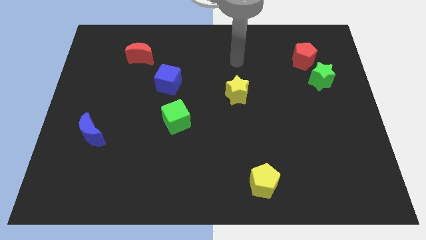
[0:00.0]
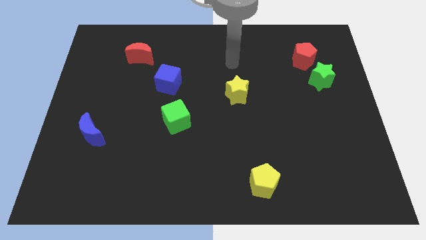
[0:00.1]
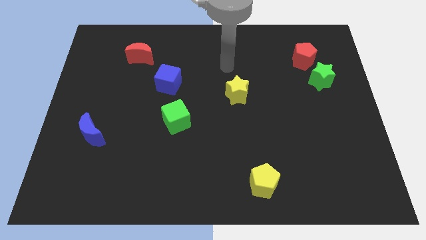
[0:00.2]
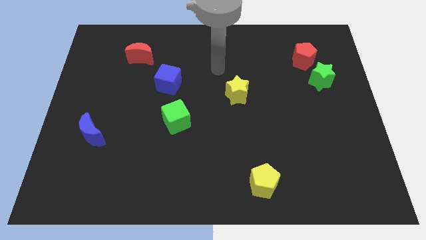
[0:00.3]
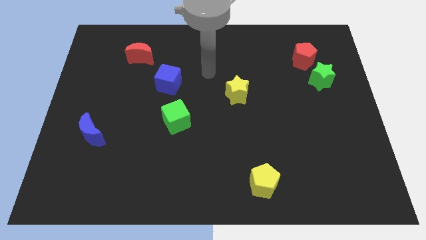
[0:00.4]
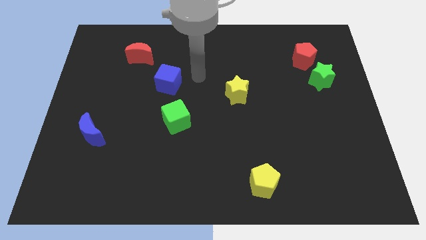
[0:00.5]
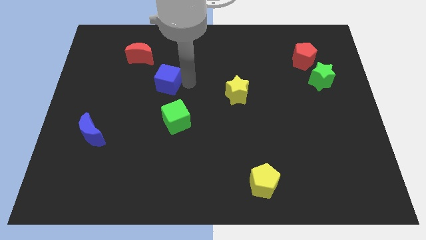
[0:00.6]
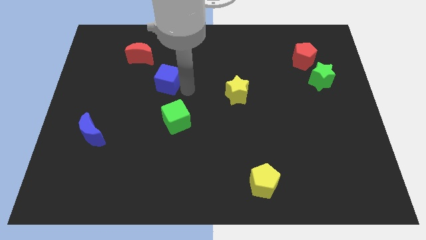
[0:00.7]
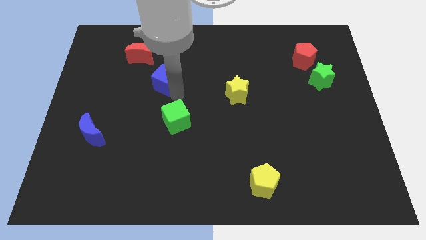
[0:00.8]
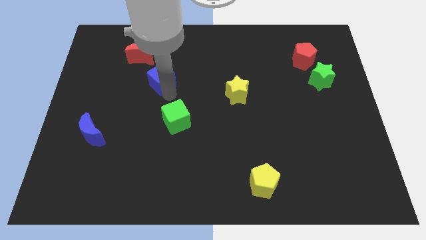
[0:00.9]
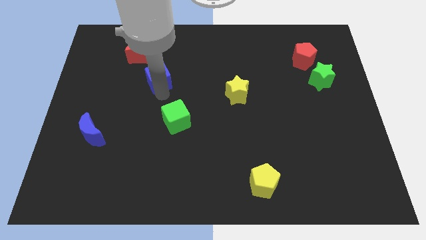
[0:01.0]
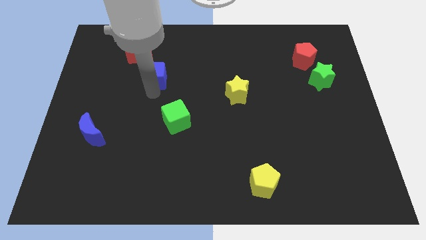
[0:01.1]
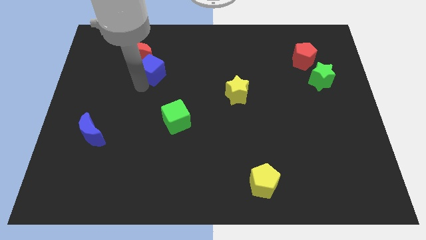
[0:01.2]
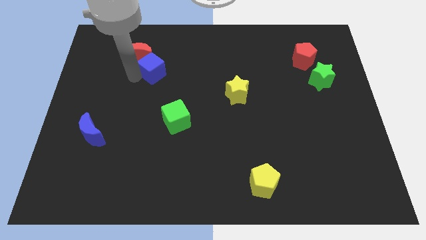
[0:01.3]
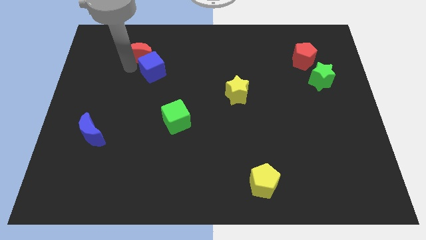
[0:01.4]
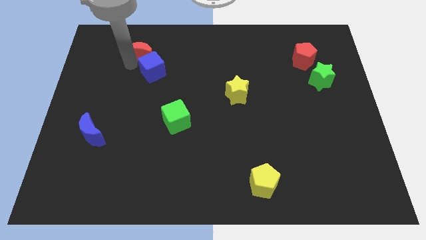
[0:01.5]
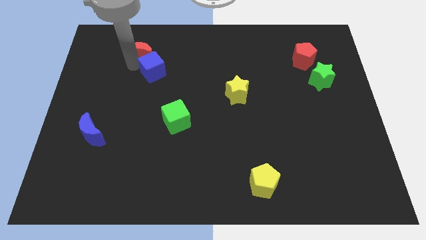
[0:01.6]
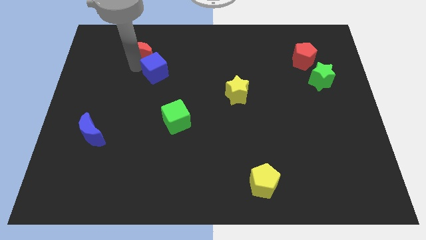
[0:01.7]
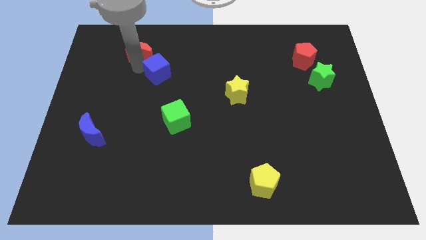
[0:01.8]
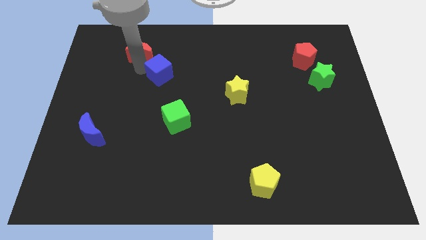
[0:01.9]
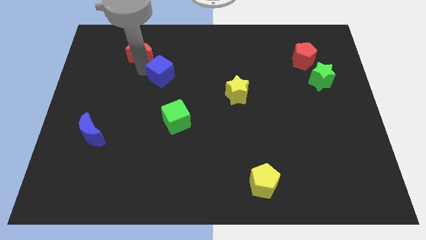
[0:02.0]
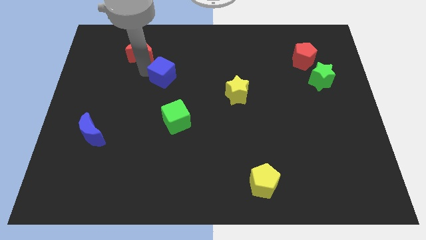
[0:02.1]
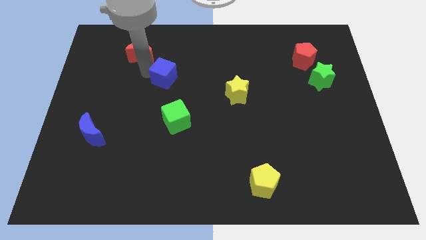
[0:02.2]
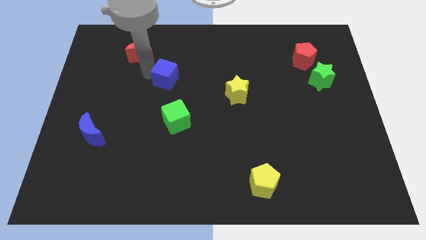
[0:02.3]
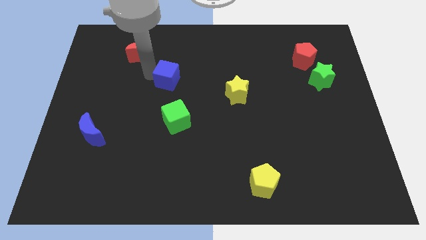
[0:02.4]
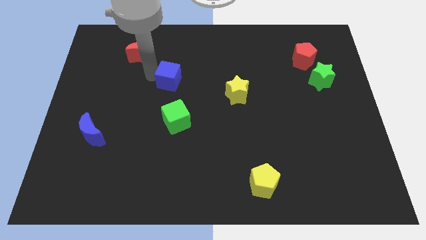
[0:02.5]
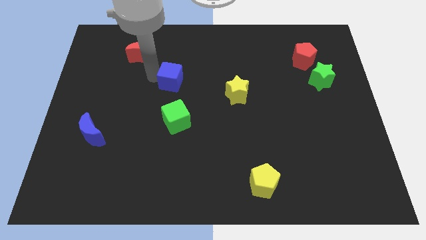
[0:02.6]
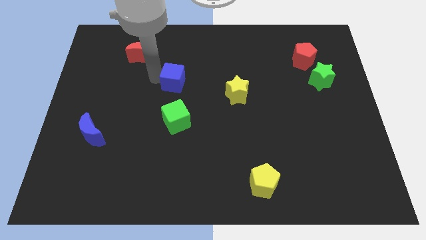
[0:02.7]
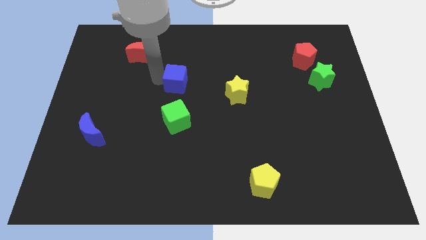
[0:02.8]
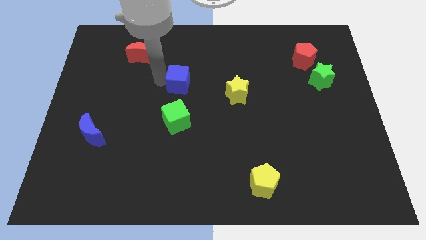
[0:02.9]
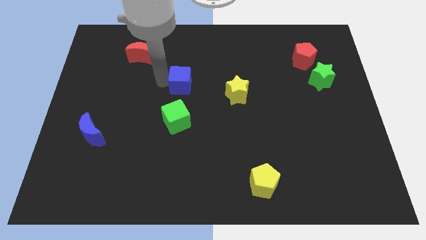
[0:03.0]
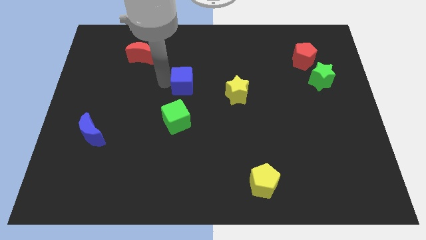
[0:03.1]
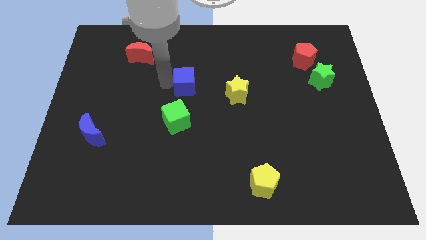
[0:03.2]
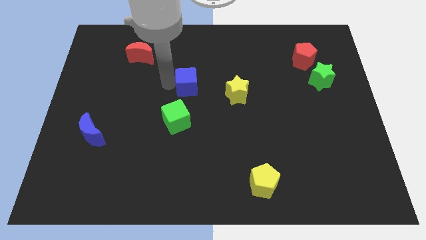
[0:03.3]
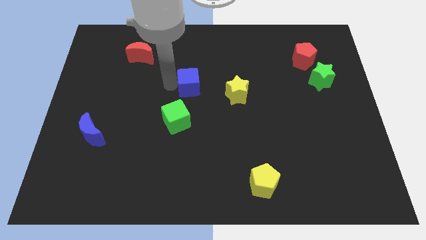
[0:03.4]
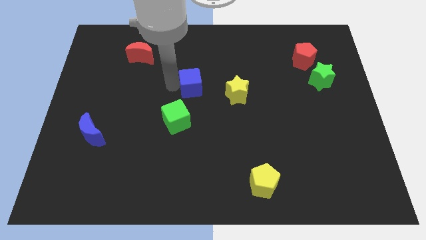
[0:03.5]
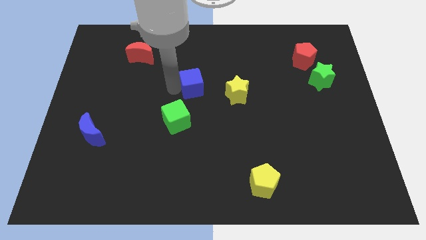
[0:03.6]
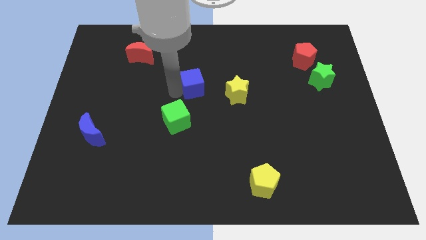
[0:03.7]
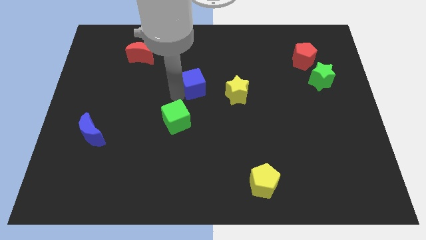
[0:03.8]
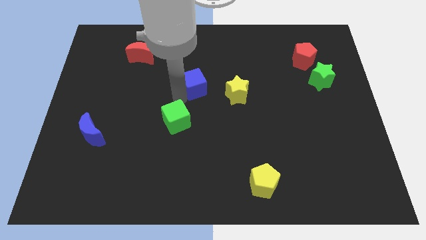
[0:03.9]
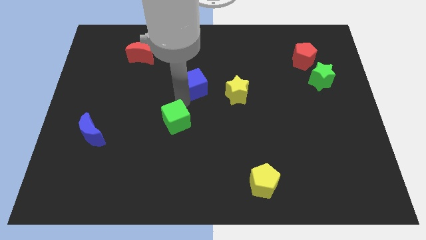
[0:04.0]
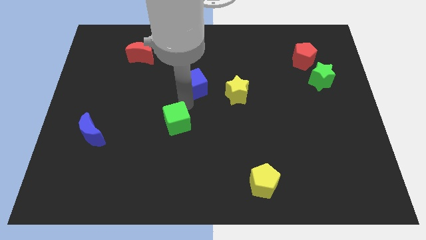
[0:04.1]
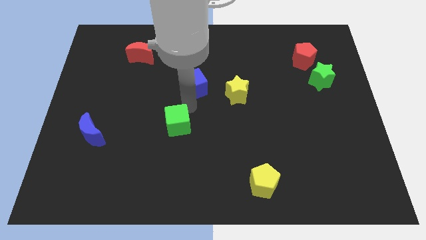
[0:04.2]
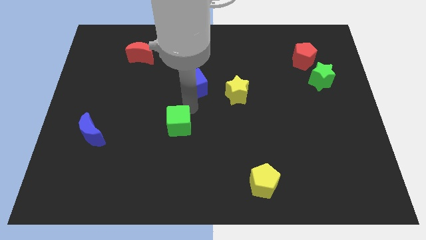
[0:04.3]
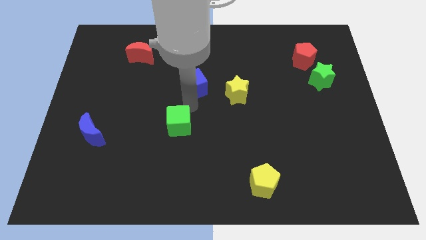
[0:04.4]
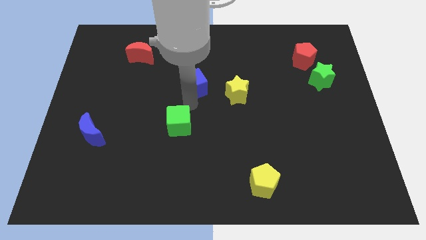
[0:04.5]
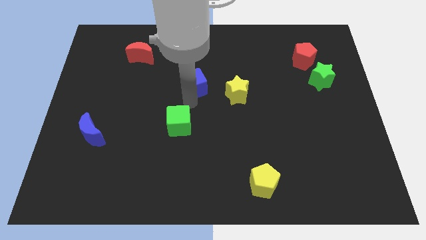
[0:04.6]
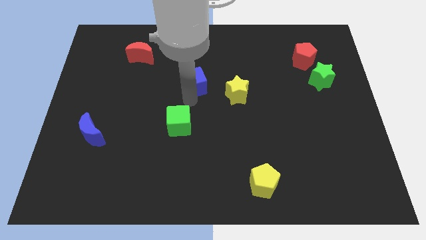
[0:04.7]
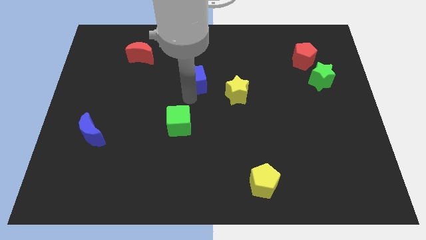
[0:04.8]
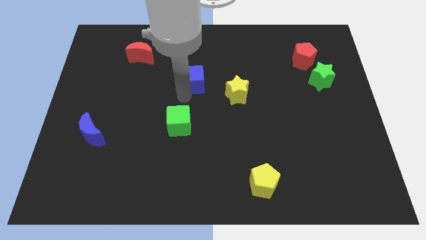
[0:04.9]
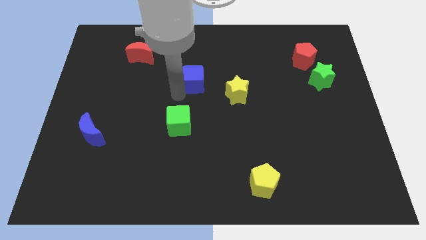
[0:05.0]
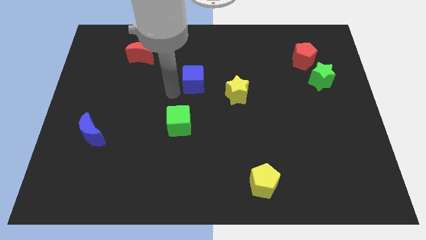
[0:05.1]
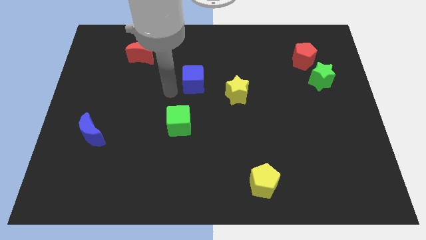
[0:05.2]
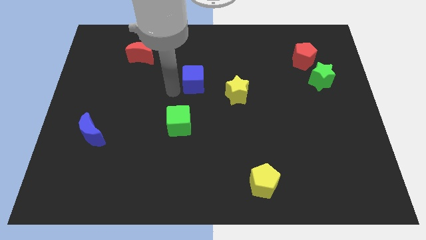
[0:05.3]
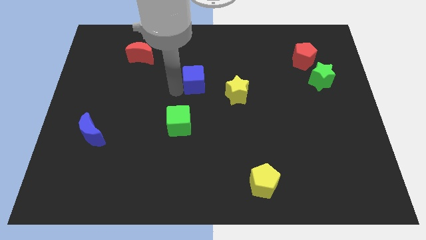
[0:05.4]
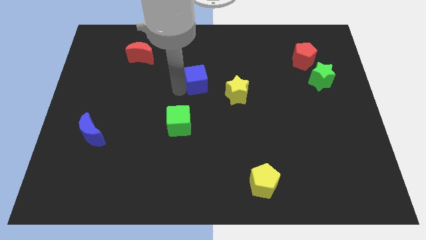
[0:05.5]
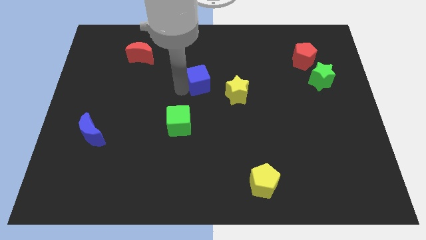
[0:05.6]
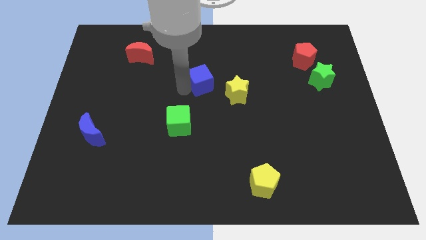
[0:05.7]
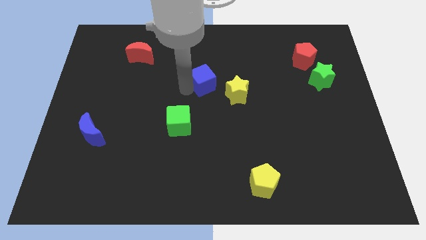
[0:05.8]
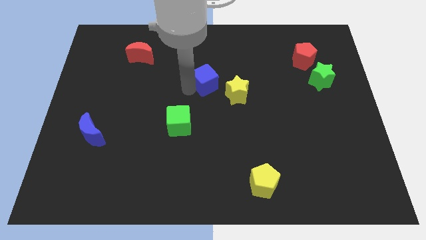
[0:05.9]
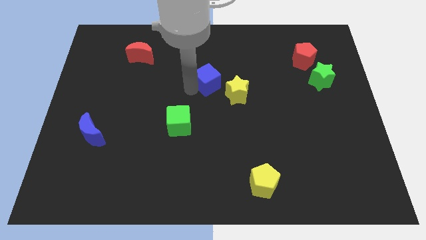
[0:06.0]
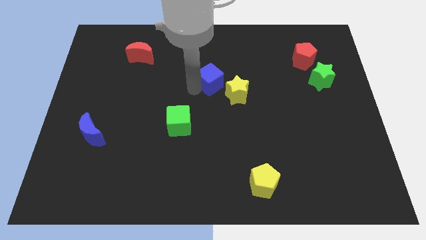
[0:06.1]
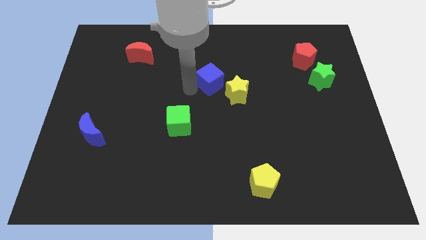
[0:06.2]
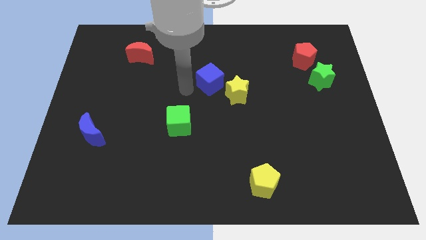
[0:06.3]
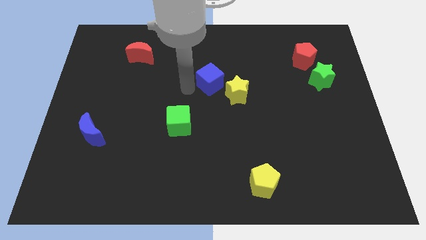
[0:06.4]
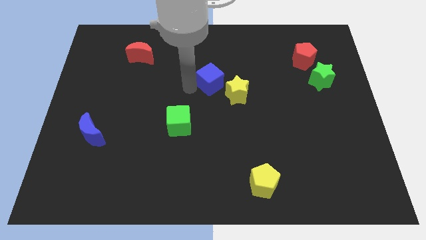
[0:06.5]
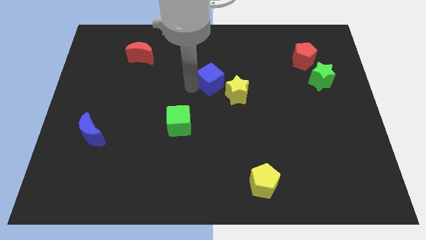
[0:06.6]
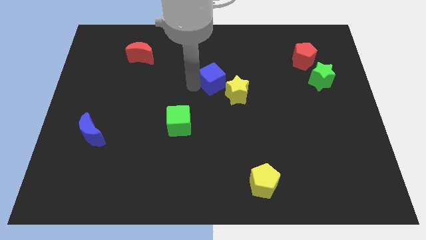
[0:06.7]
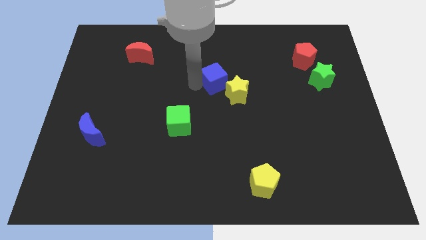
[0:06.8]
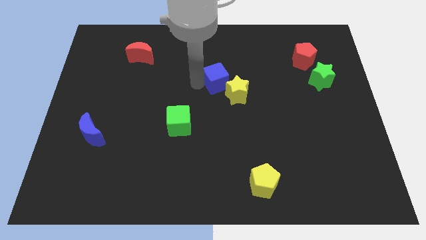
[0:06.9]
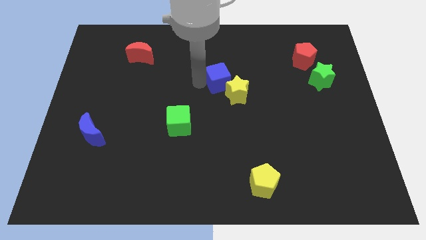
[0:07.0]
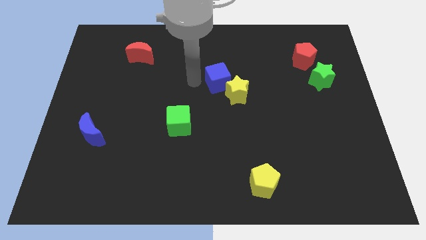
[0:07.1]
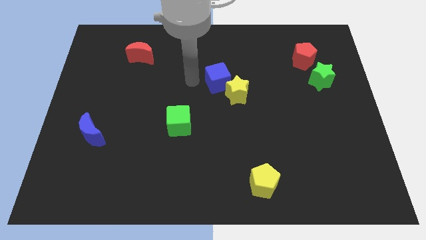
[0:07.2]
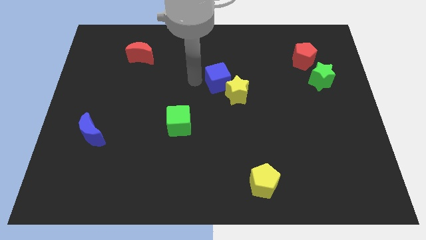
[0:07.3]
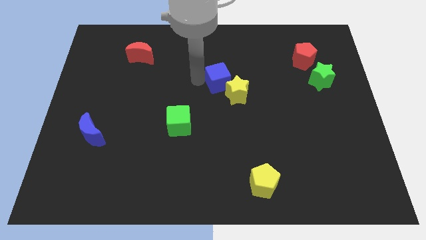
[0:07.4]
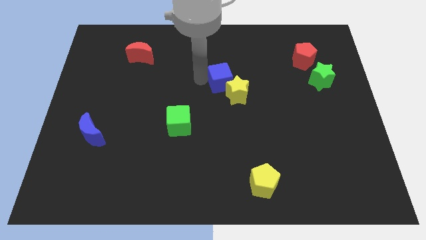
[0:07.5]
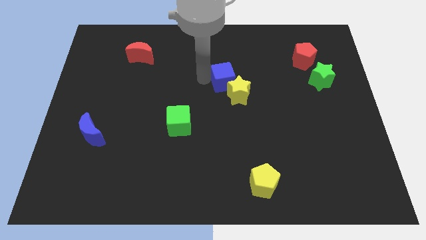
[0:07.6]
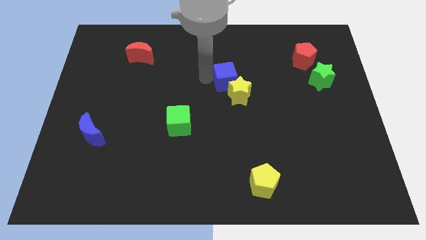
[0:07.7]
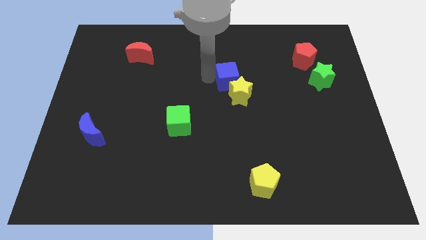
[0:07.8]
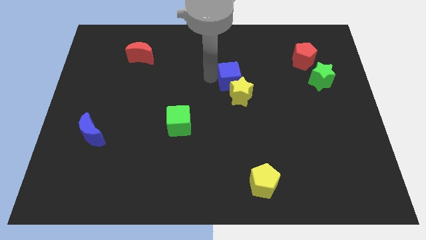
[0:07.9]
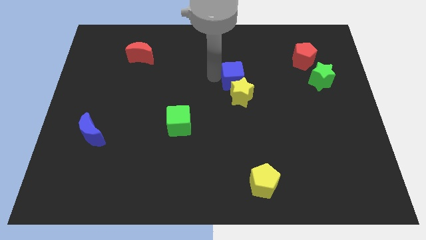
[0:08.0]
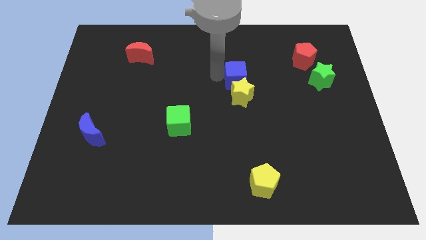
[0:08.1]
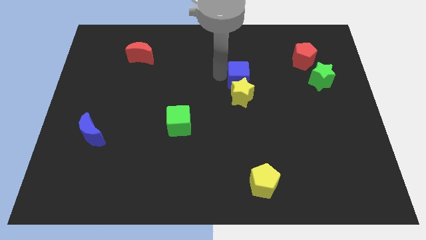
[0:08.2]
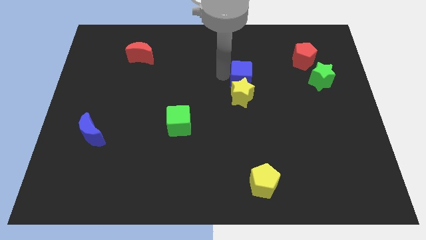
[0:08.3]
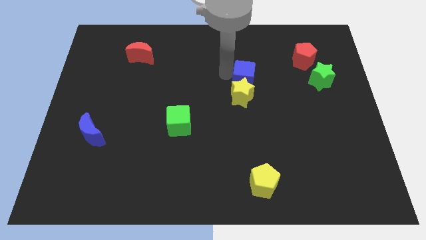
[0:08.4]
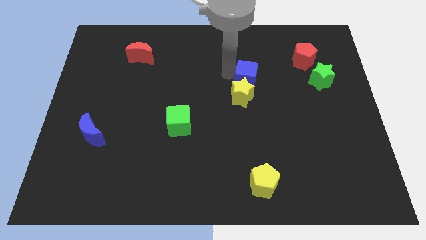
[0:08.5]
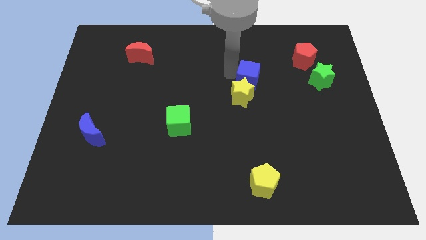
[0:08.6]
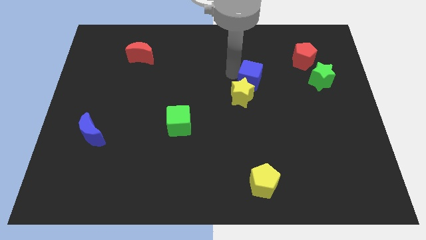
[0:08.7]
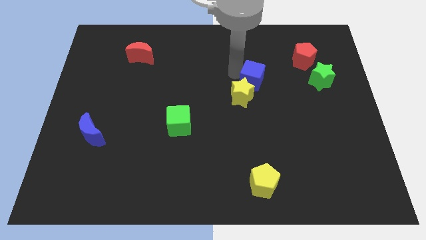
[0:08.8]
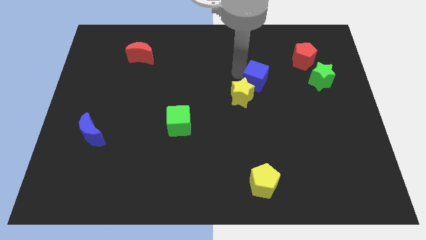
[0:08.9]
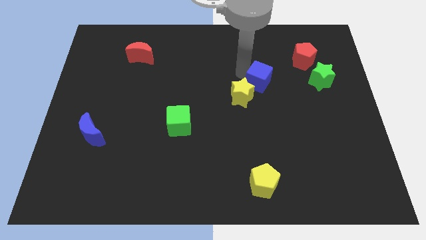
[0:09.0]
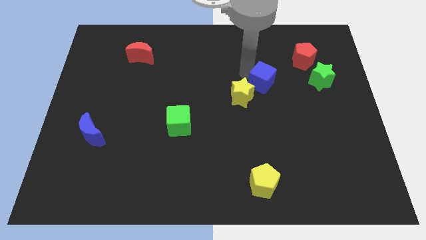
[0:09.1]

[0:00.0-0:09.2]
move the blue cube right of the yellow star
